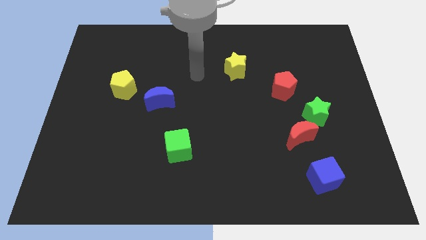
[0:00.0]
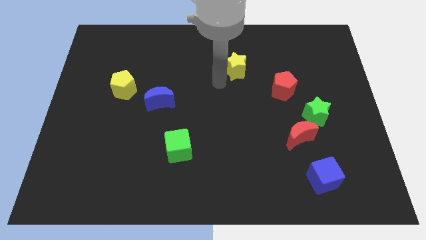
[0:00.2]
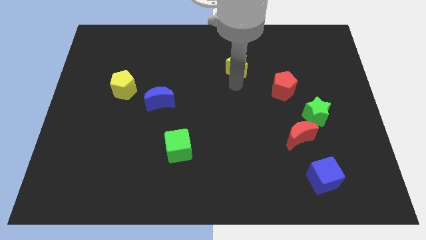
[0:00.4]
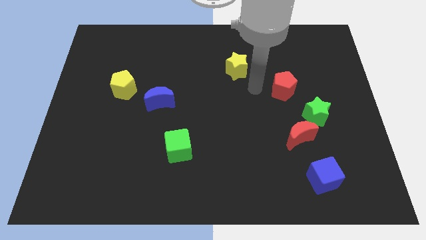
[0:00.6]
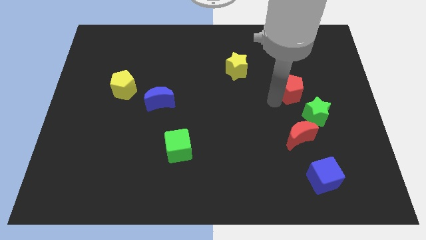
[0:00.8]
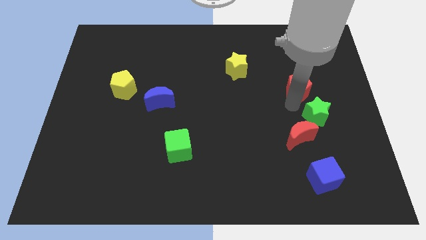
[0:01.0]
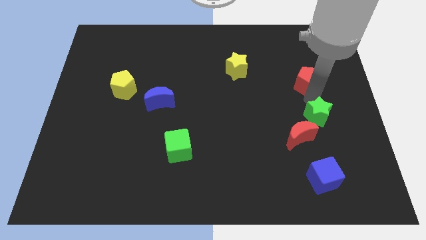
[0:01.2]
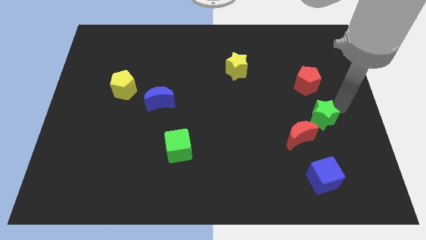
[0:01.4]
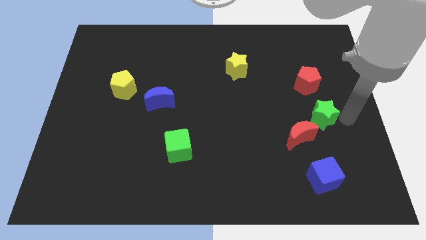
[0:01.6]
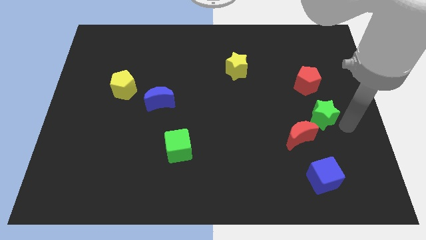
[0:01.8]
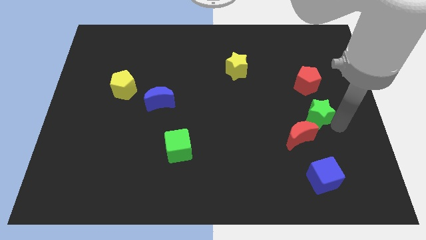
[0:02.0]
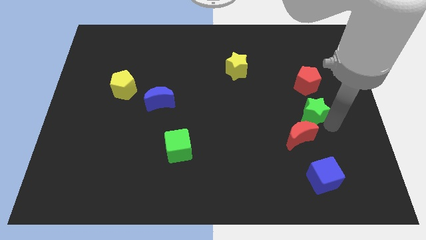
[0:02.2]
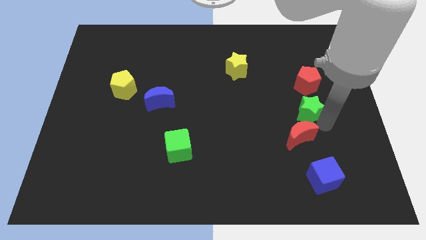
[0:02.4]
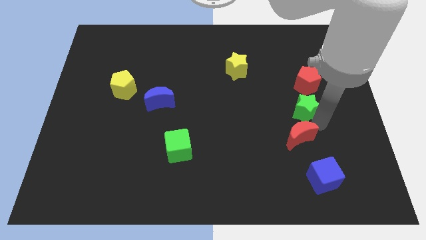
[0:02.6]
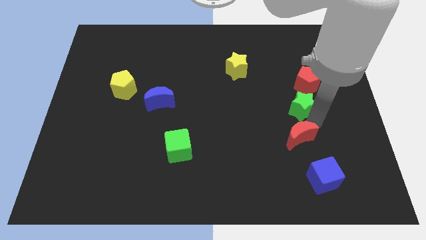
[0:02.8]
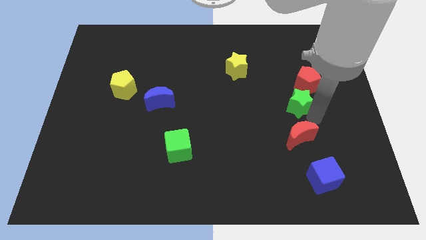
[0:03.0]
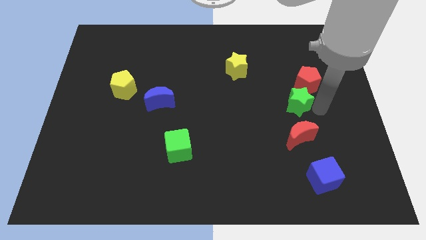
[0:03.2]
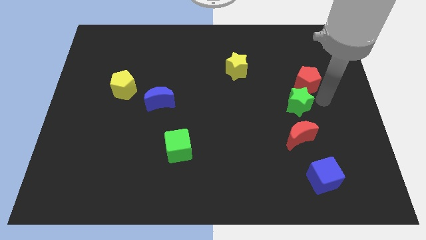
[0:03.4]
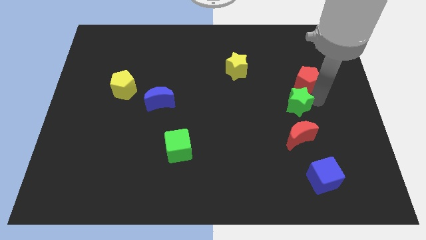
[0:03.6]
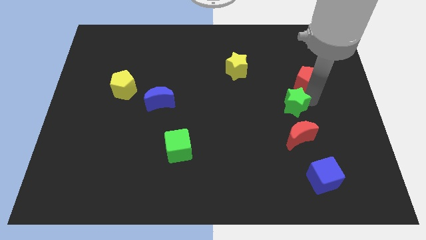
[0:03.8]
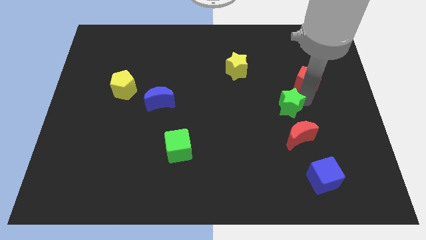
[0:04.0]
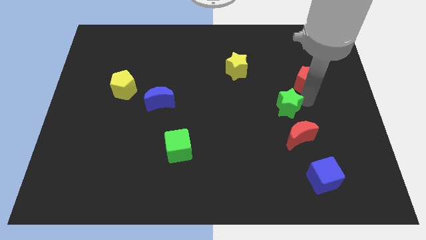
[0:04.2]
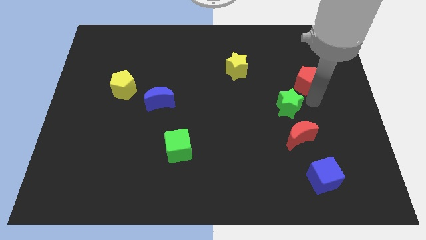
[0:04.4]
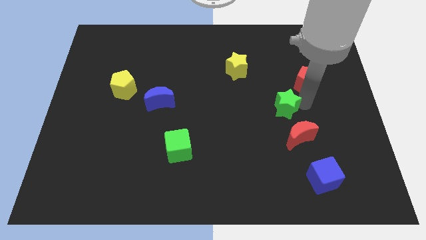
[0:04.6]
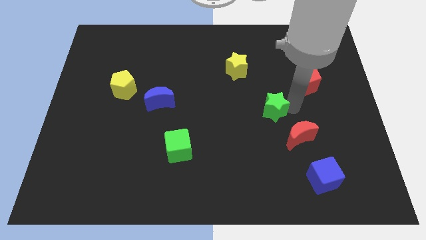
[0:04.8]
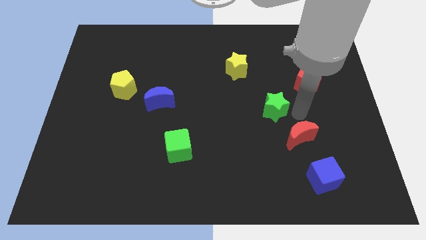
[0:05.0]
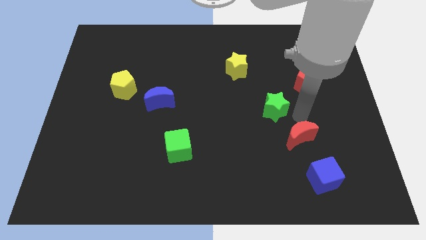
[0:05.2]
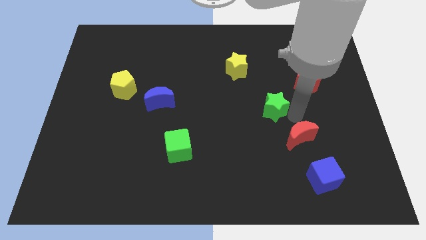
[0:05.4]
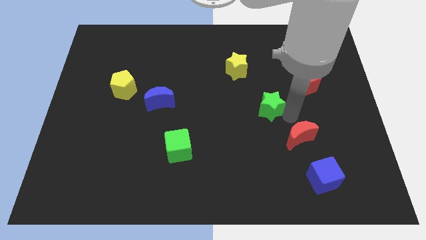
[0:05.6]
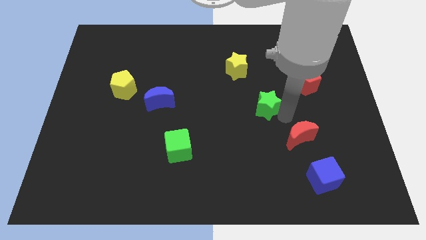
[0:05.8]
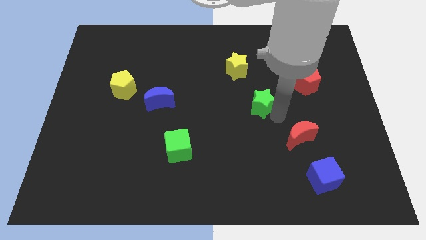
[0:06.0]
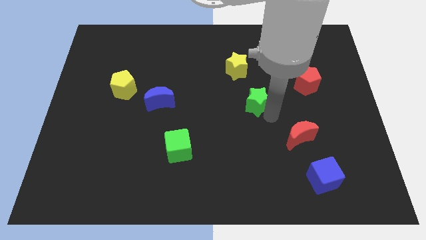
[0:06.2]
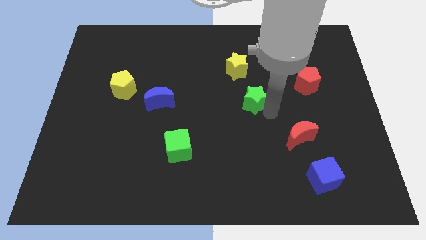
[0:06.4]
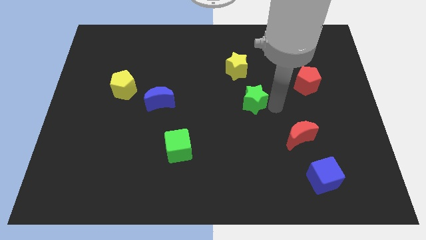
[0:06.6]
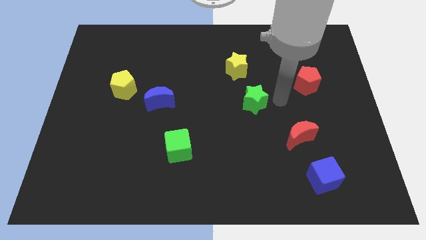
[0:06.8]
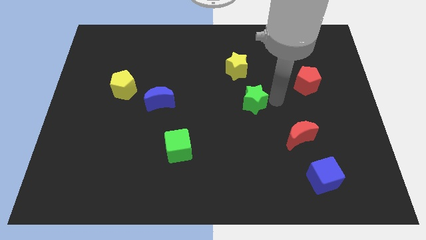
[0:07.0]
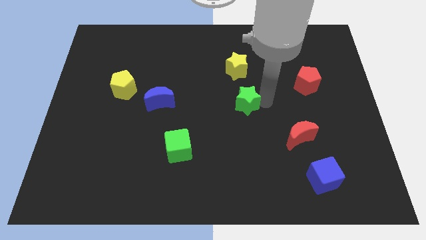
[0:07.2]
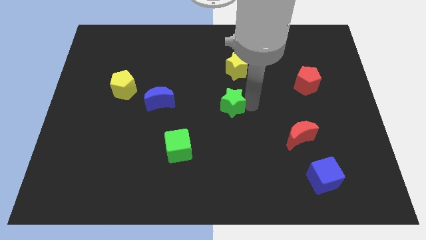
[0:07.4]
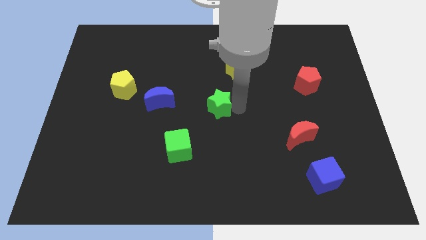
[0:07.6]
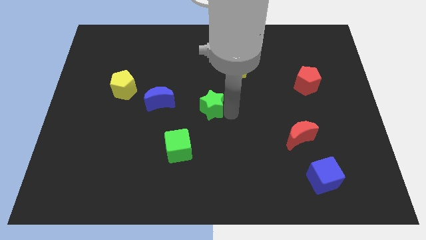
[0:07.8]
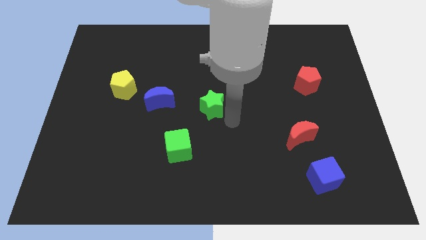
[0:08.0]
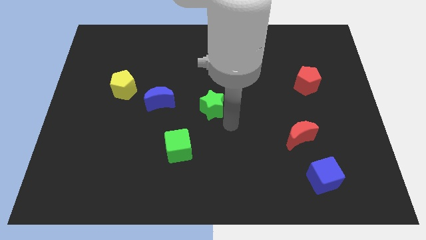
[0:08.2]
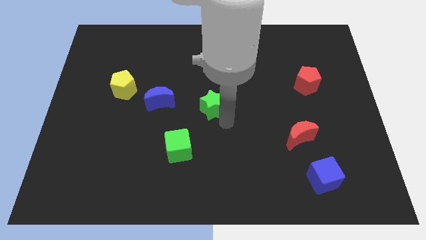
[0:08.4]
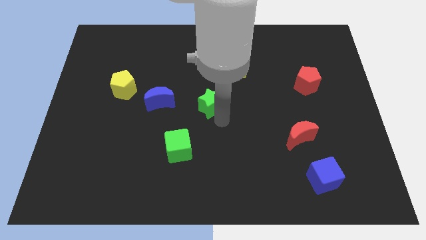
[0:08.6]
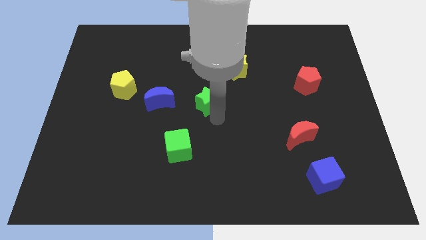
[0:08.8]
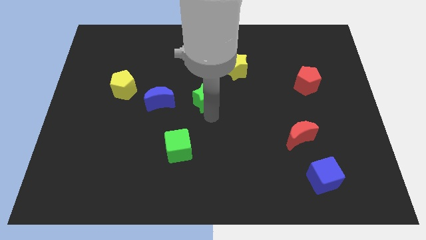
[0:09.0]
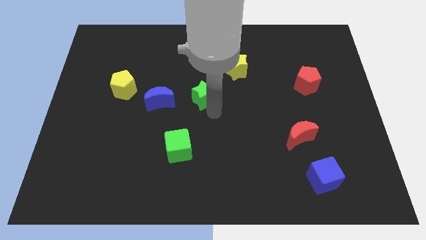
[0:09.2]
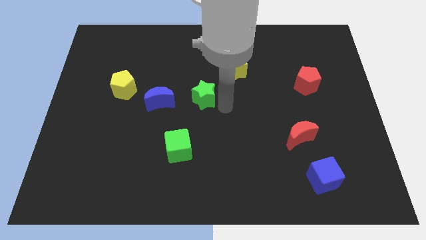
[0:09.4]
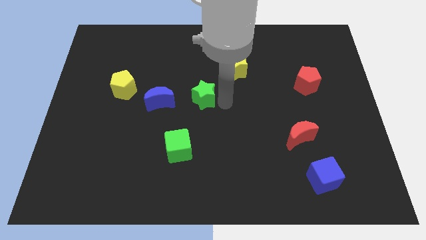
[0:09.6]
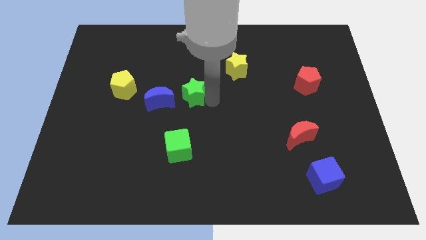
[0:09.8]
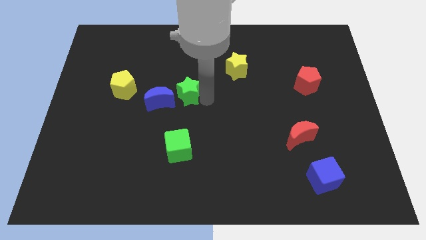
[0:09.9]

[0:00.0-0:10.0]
move the green star to the right side of the yellow pentagon

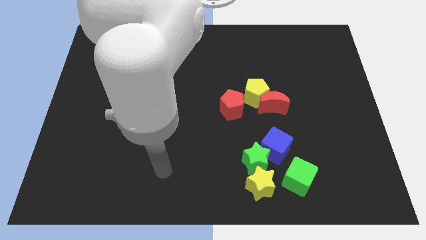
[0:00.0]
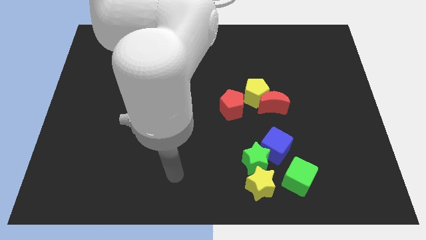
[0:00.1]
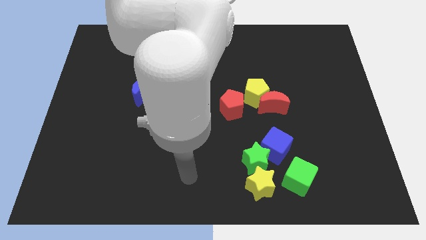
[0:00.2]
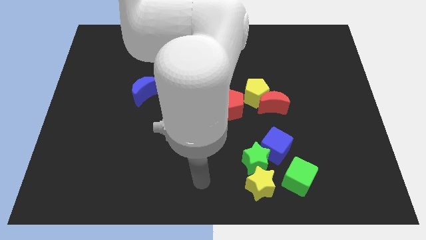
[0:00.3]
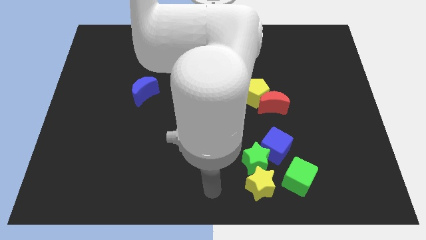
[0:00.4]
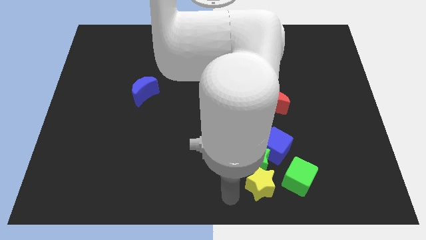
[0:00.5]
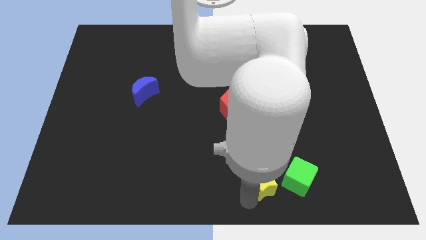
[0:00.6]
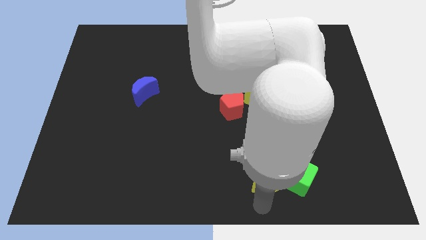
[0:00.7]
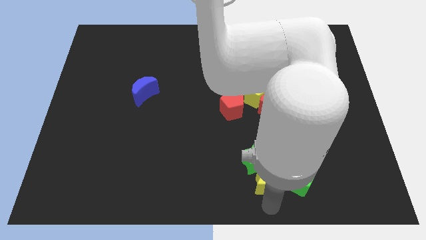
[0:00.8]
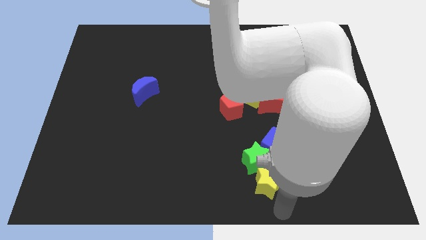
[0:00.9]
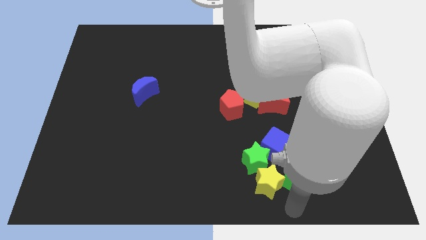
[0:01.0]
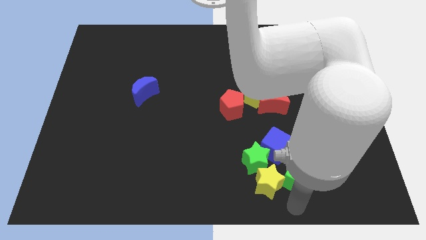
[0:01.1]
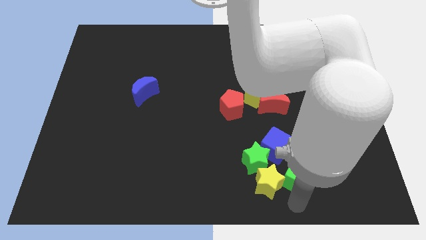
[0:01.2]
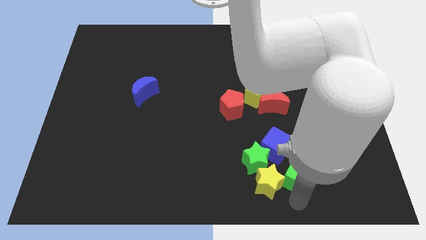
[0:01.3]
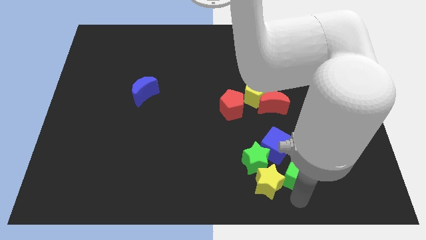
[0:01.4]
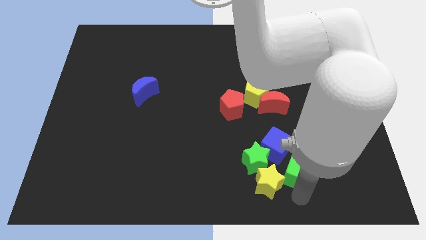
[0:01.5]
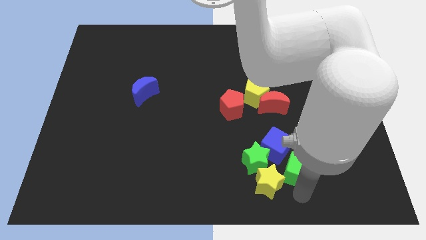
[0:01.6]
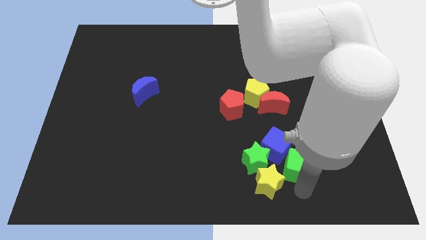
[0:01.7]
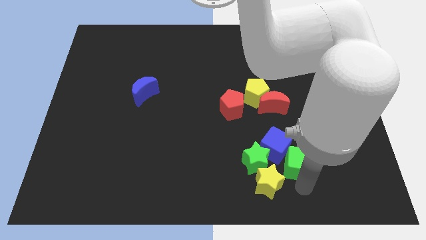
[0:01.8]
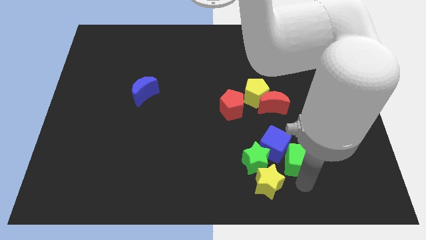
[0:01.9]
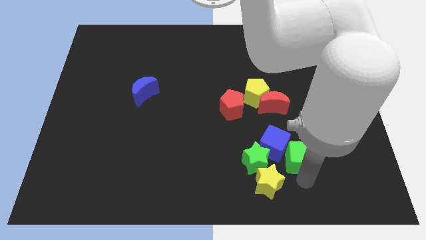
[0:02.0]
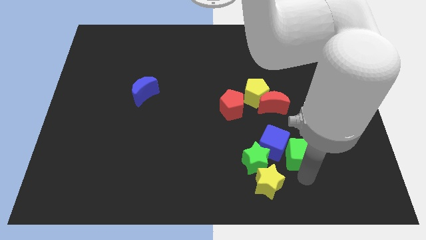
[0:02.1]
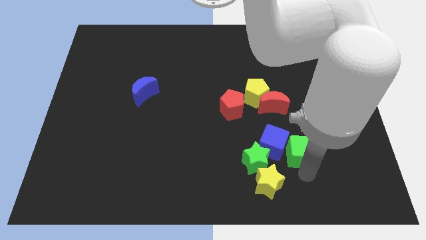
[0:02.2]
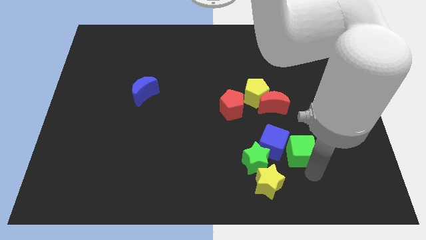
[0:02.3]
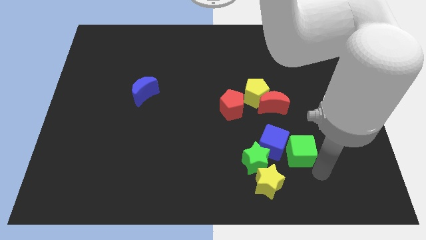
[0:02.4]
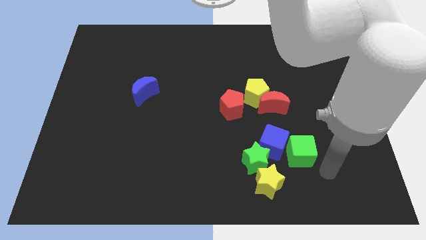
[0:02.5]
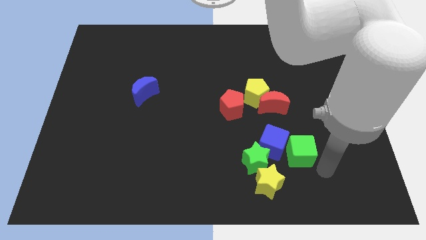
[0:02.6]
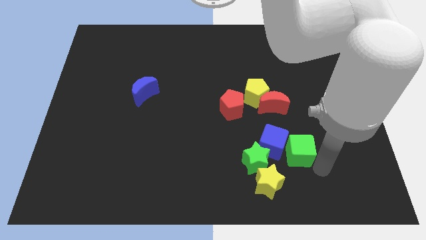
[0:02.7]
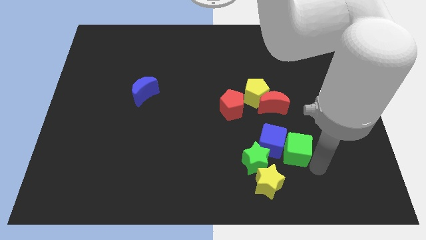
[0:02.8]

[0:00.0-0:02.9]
move the green cube to the top right of the green star
